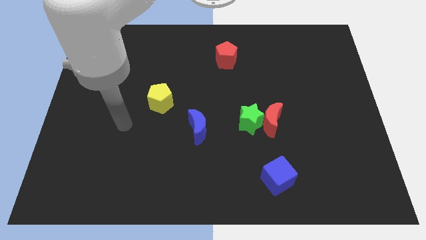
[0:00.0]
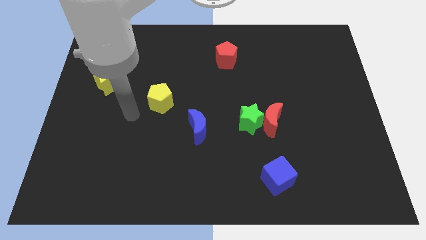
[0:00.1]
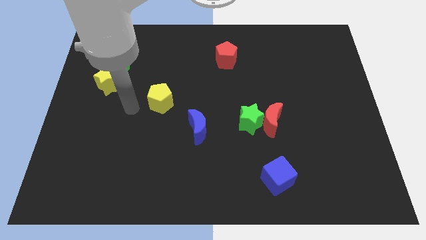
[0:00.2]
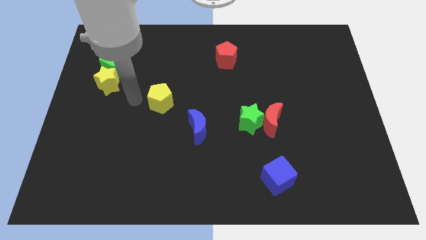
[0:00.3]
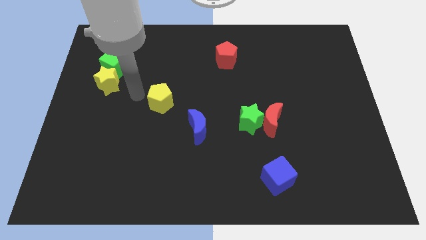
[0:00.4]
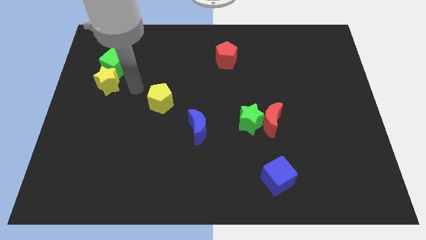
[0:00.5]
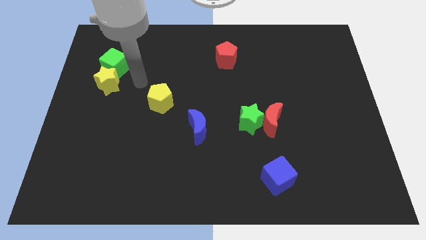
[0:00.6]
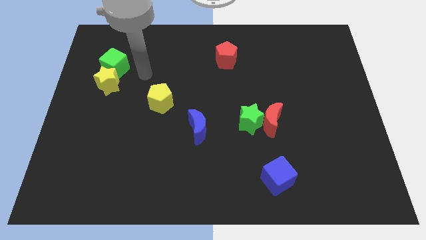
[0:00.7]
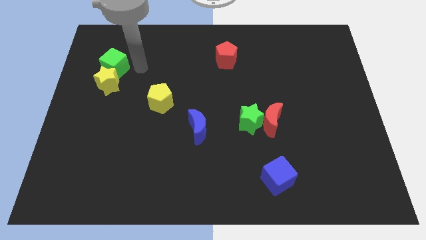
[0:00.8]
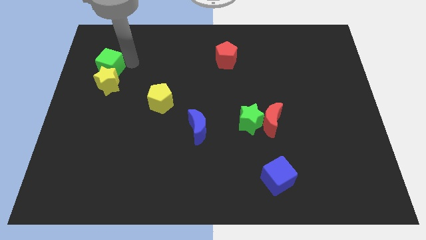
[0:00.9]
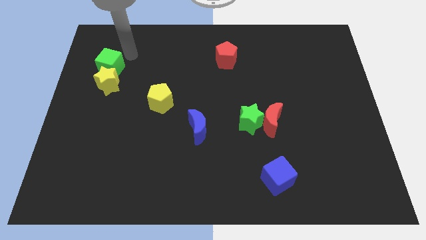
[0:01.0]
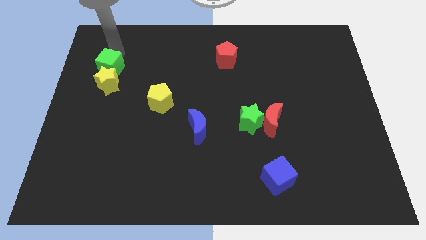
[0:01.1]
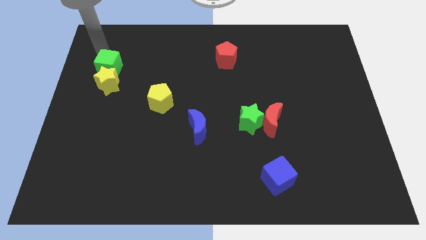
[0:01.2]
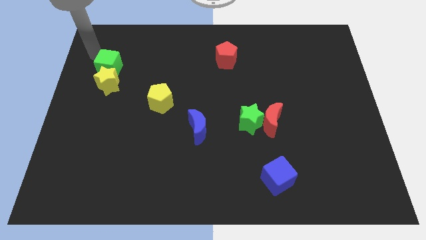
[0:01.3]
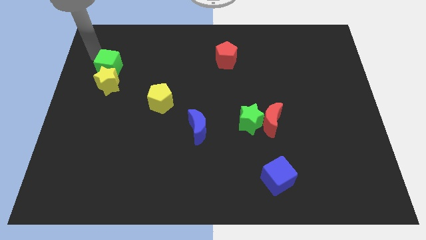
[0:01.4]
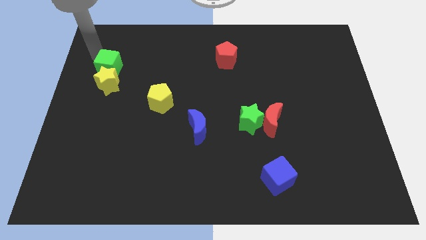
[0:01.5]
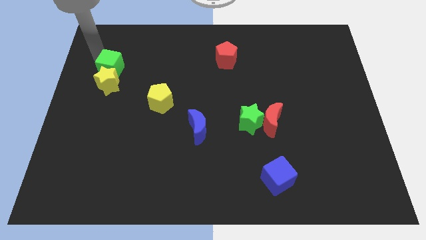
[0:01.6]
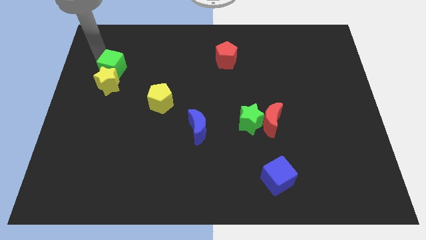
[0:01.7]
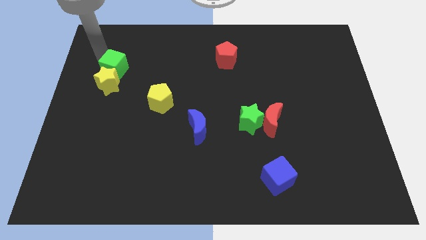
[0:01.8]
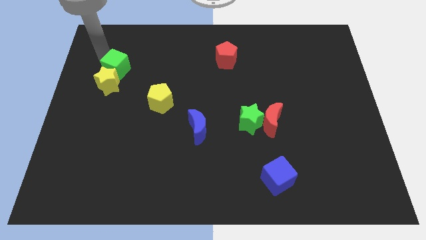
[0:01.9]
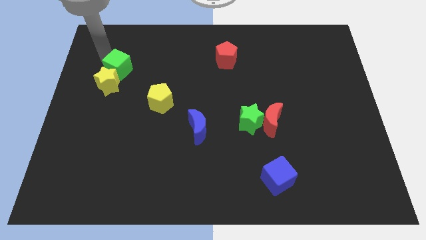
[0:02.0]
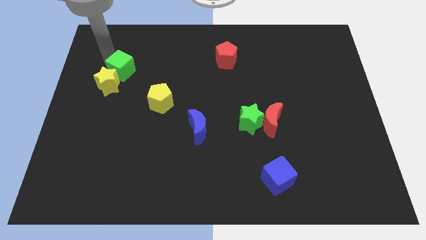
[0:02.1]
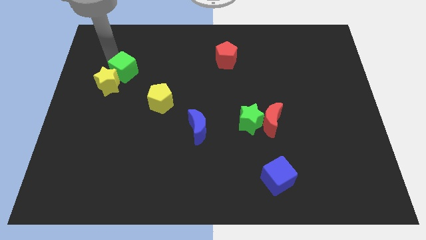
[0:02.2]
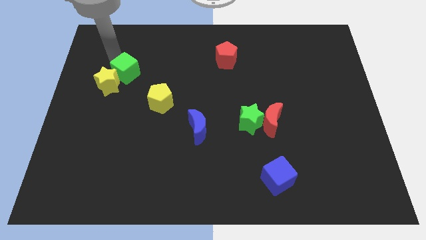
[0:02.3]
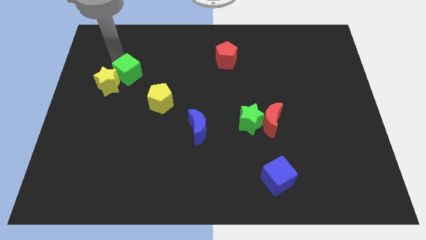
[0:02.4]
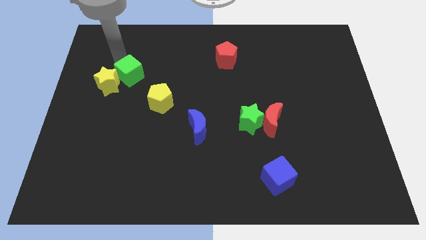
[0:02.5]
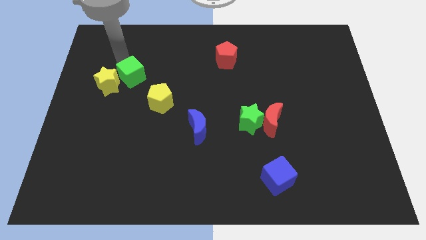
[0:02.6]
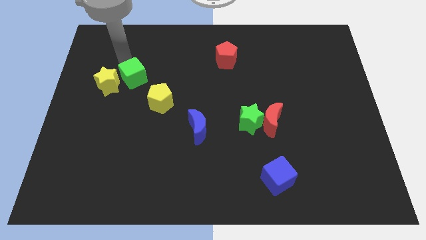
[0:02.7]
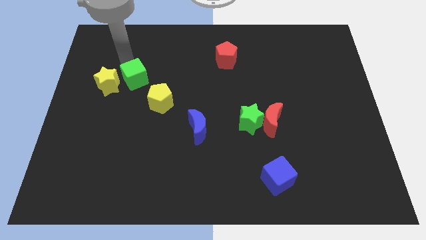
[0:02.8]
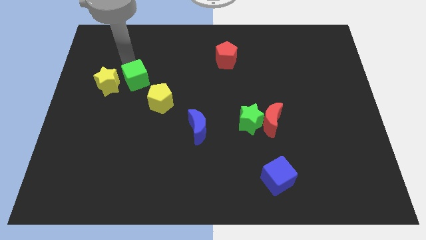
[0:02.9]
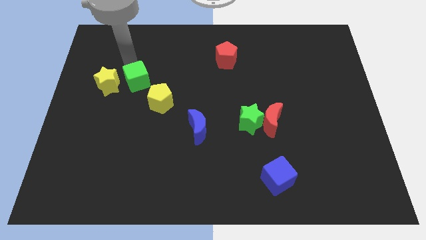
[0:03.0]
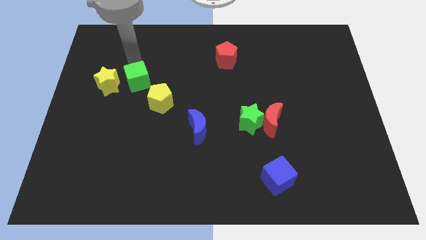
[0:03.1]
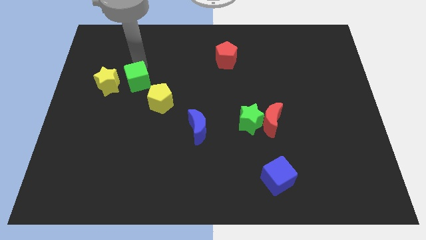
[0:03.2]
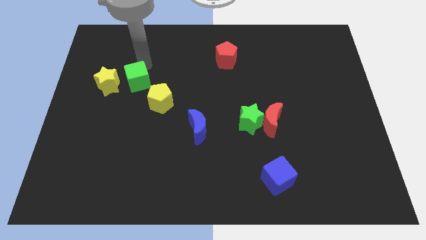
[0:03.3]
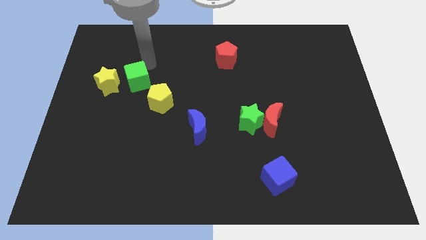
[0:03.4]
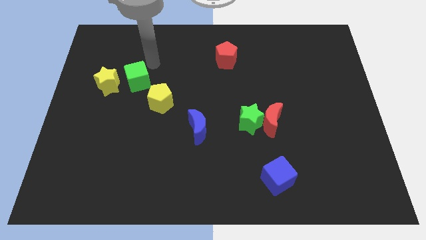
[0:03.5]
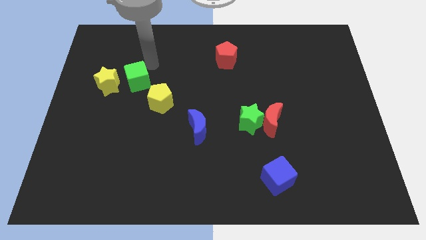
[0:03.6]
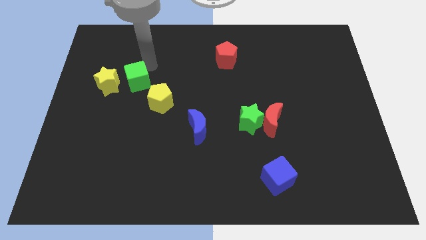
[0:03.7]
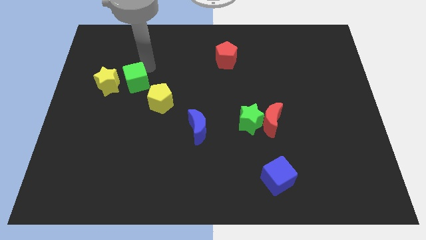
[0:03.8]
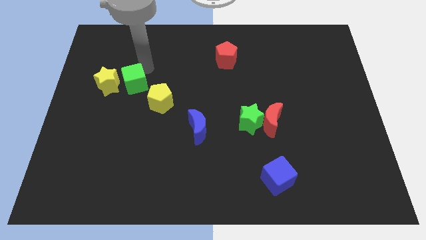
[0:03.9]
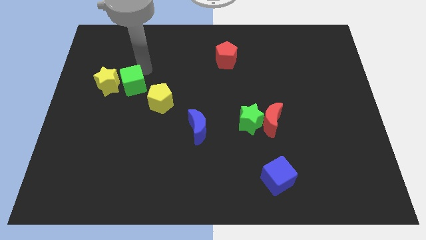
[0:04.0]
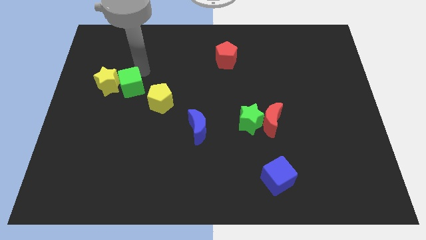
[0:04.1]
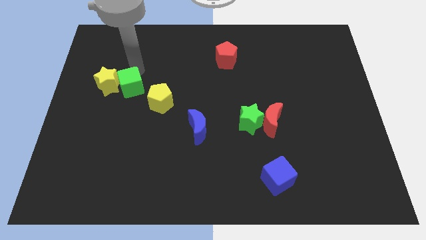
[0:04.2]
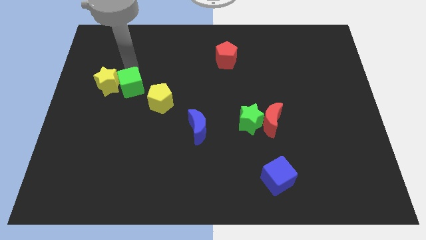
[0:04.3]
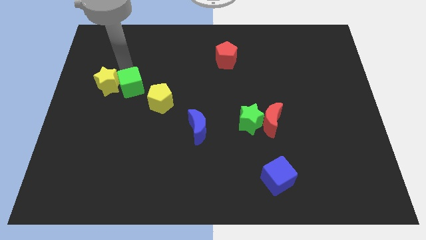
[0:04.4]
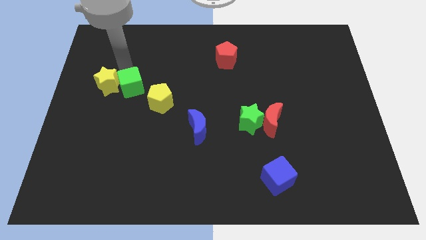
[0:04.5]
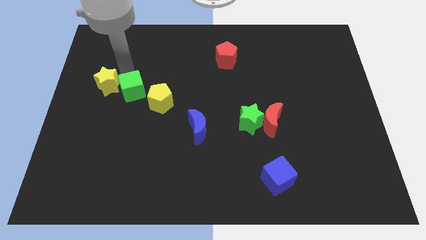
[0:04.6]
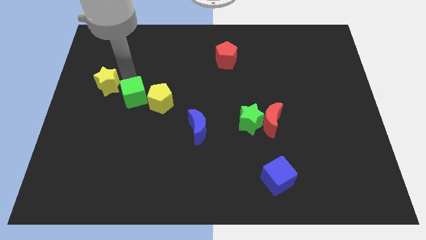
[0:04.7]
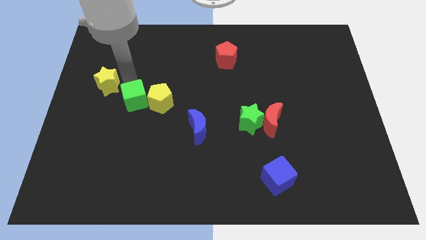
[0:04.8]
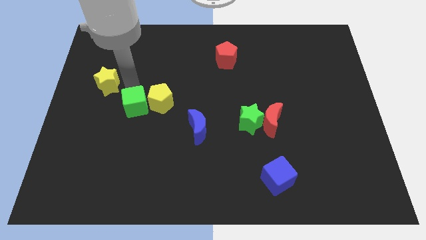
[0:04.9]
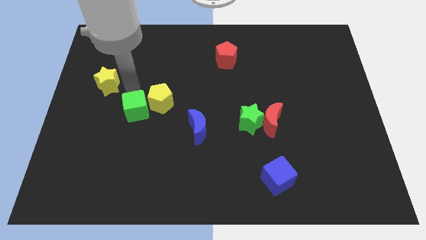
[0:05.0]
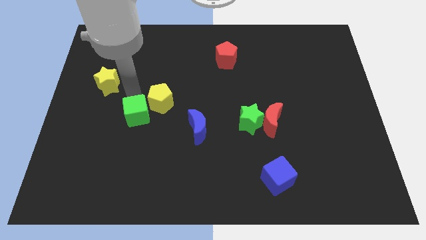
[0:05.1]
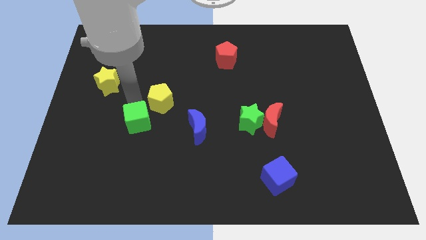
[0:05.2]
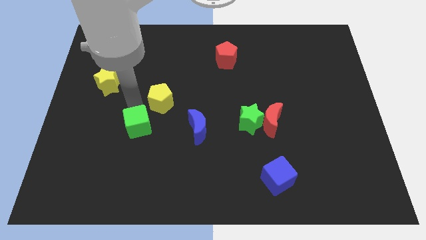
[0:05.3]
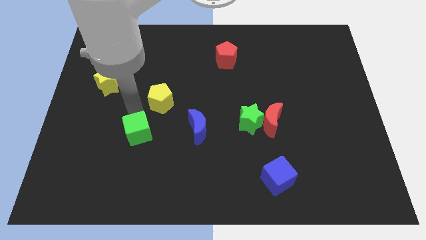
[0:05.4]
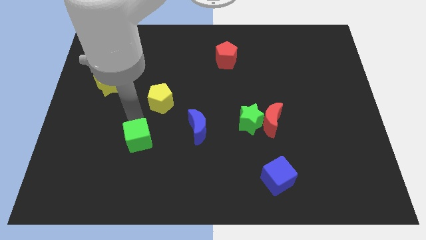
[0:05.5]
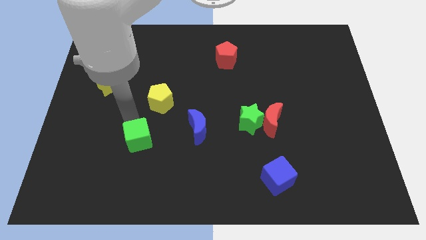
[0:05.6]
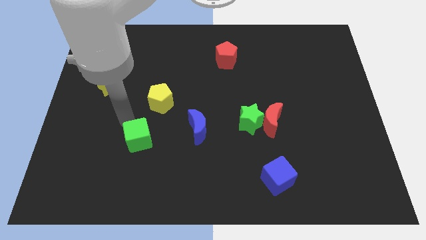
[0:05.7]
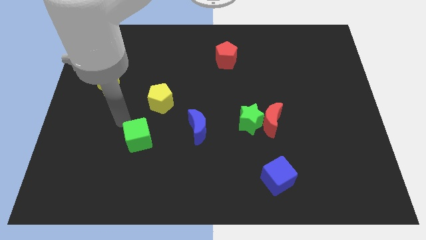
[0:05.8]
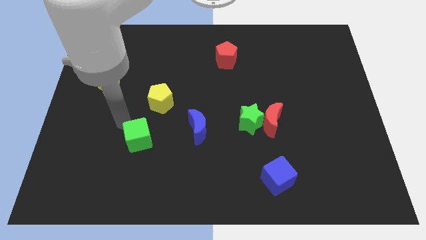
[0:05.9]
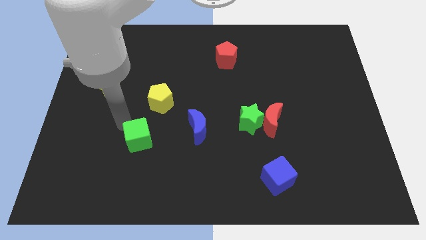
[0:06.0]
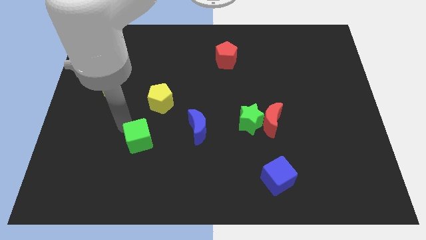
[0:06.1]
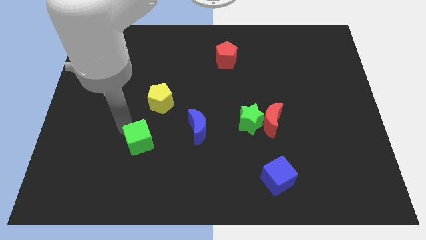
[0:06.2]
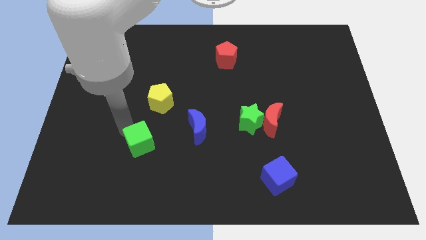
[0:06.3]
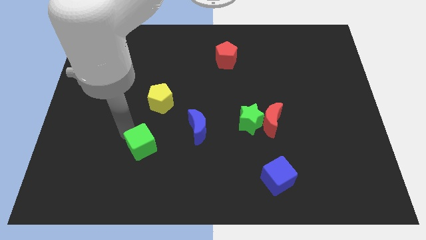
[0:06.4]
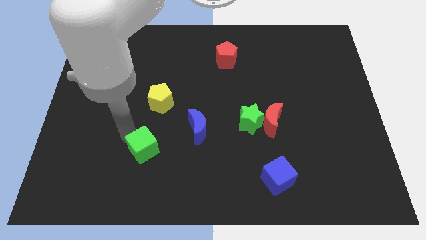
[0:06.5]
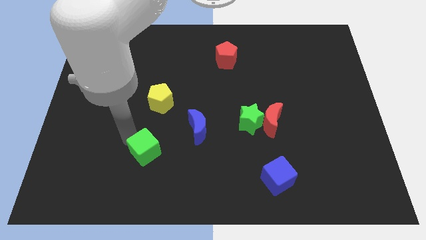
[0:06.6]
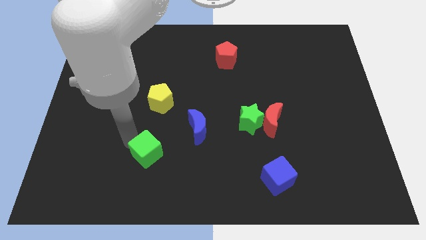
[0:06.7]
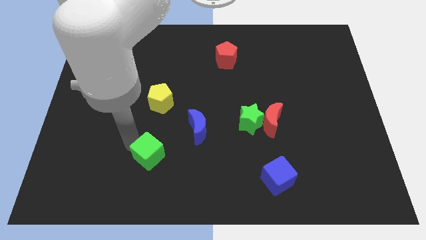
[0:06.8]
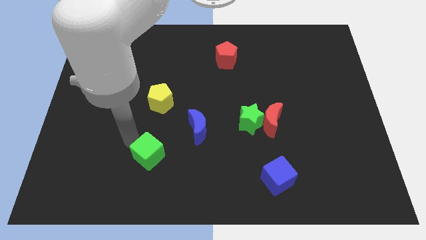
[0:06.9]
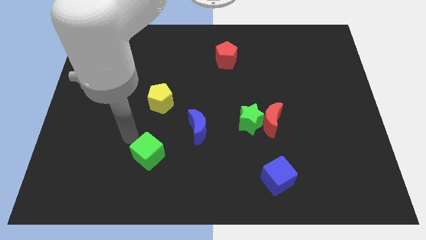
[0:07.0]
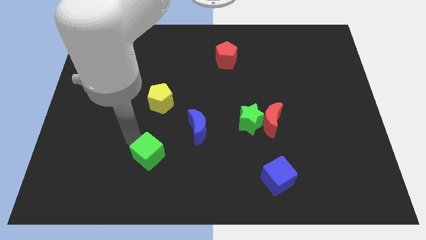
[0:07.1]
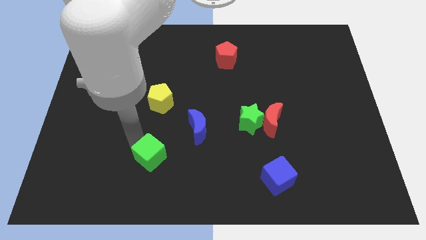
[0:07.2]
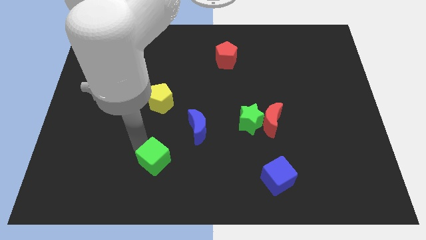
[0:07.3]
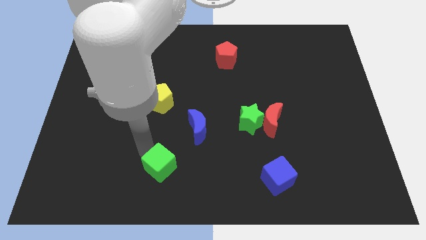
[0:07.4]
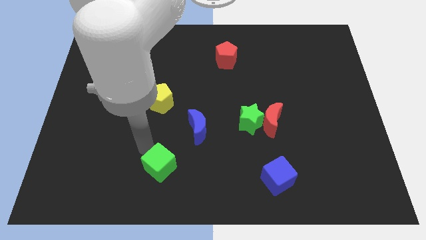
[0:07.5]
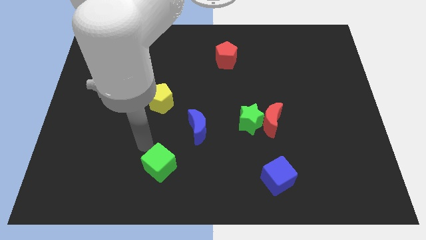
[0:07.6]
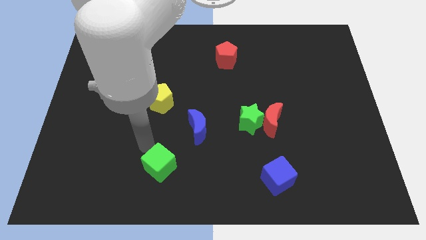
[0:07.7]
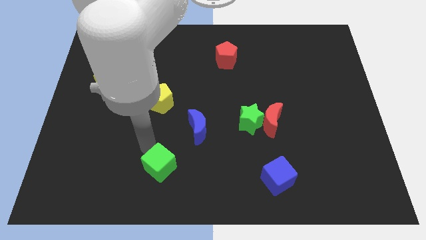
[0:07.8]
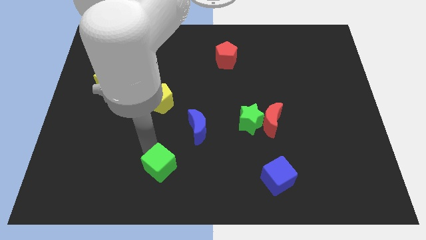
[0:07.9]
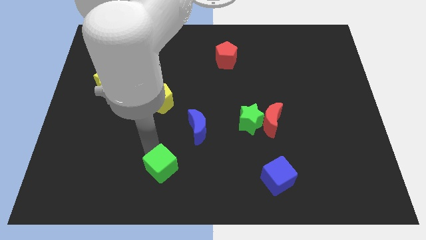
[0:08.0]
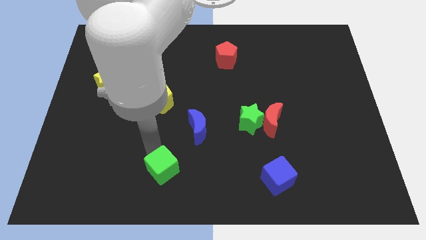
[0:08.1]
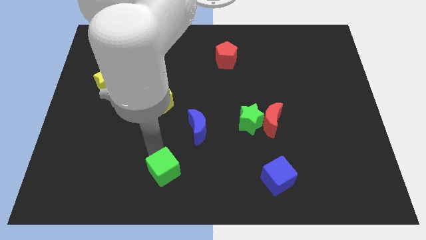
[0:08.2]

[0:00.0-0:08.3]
slide the green cube to the bottom side
